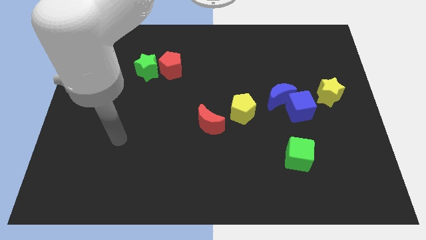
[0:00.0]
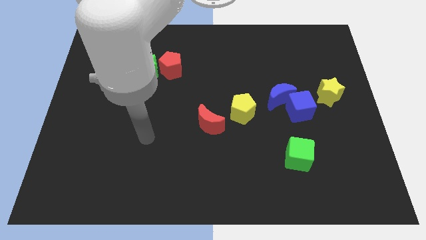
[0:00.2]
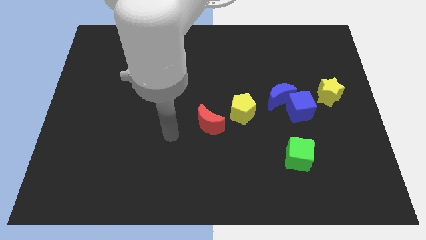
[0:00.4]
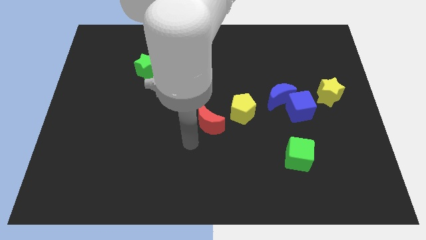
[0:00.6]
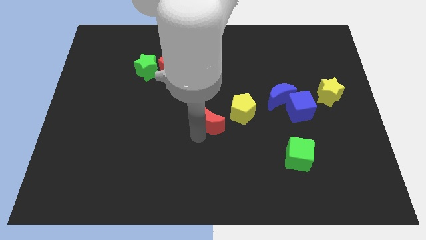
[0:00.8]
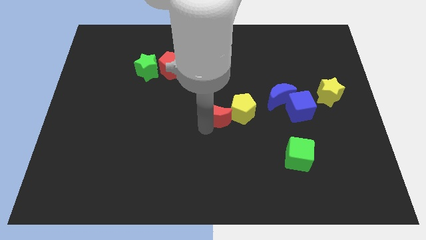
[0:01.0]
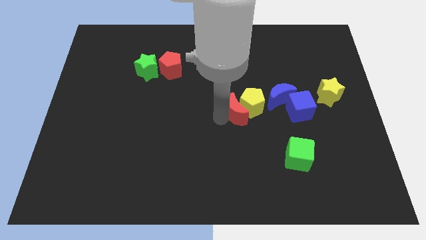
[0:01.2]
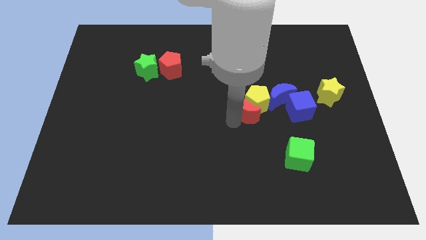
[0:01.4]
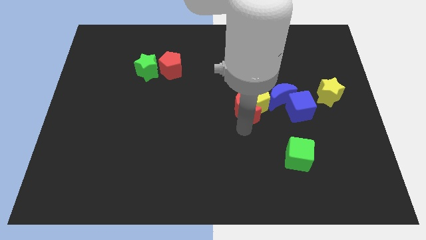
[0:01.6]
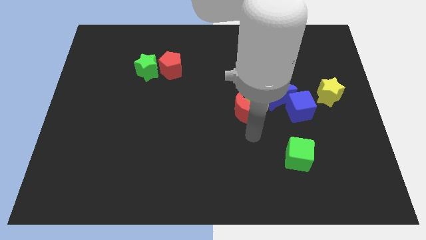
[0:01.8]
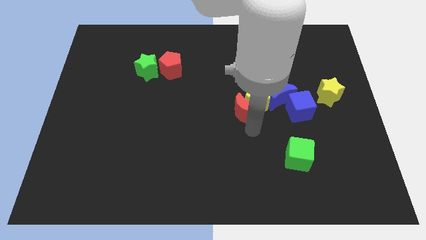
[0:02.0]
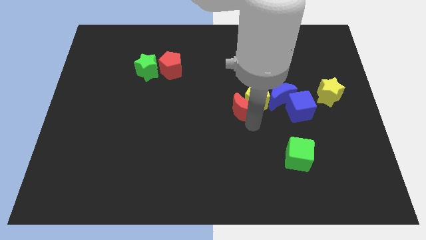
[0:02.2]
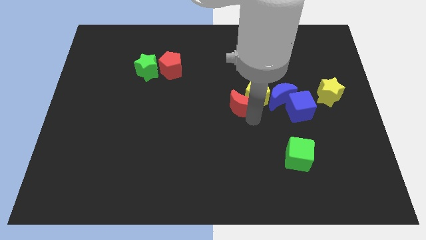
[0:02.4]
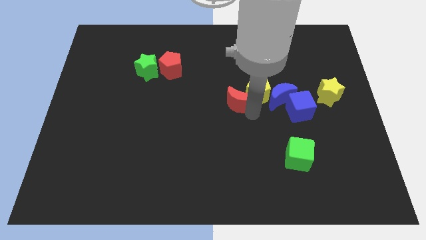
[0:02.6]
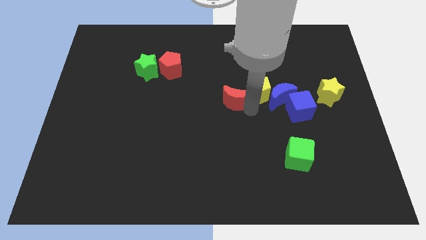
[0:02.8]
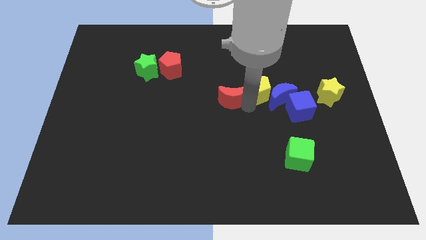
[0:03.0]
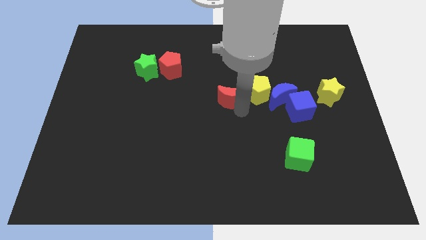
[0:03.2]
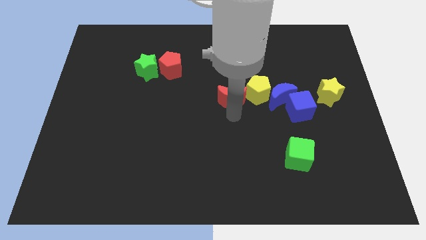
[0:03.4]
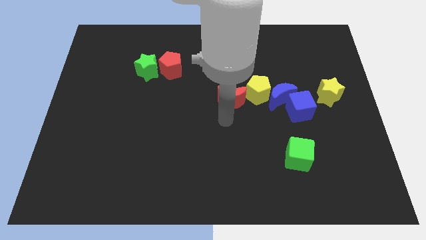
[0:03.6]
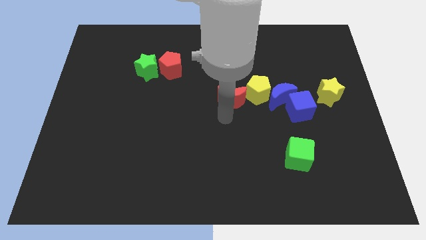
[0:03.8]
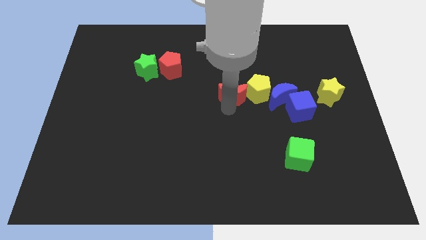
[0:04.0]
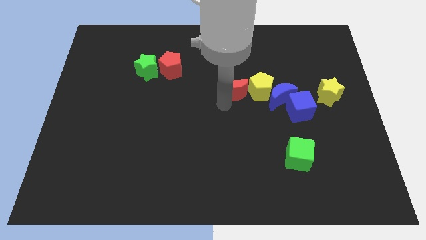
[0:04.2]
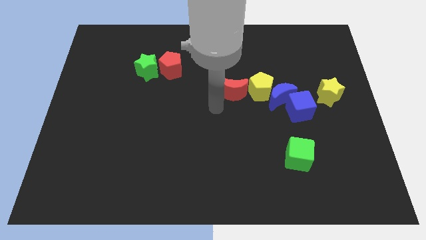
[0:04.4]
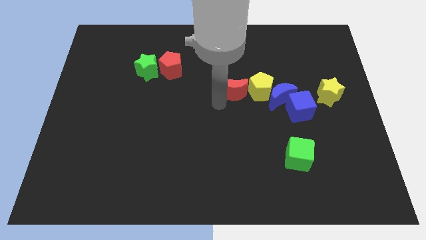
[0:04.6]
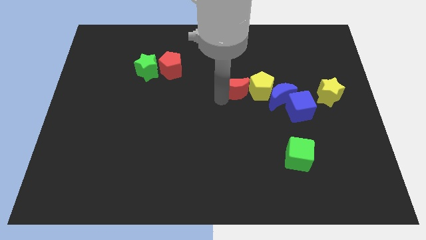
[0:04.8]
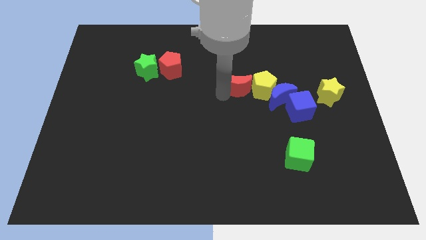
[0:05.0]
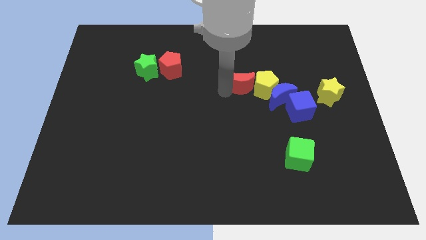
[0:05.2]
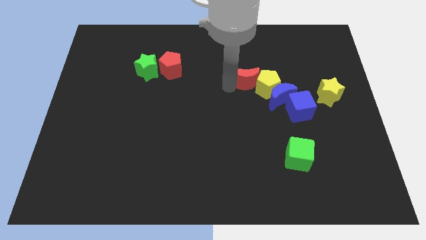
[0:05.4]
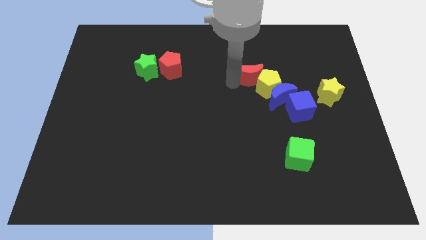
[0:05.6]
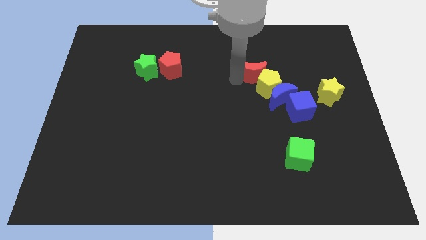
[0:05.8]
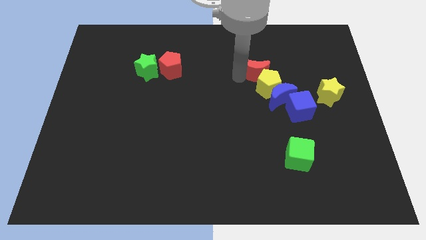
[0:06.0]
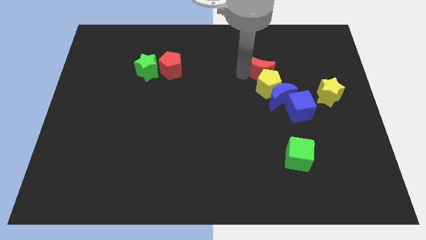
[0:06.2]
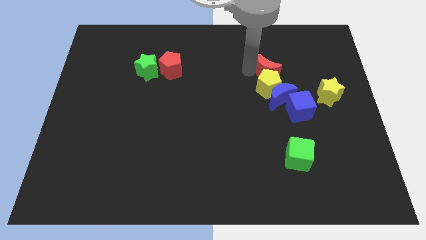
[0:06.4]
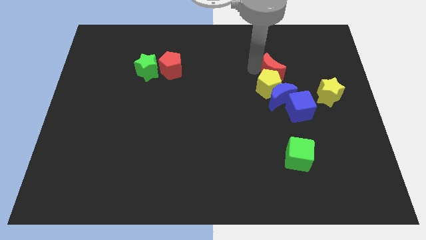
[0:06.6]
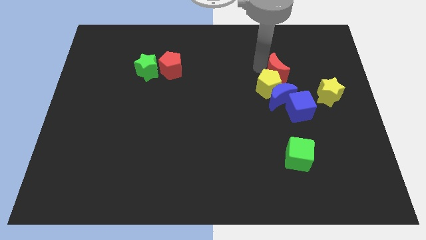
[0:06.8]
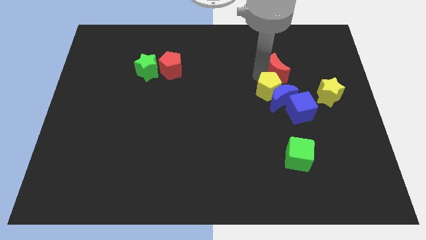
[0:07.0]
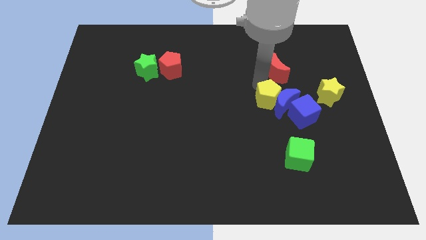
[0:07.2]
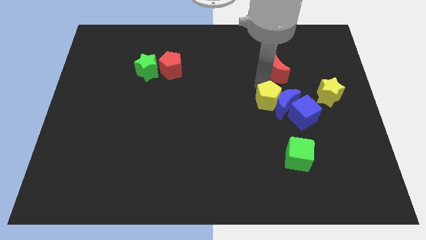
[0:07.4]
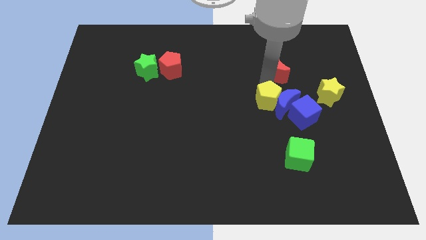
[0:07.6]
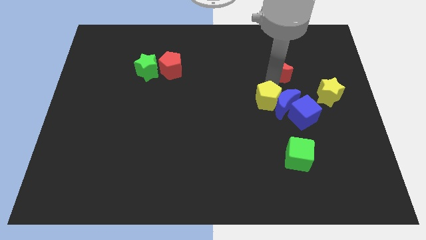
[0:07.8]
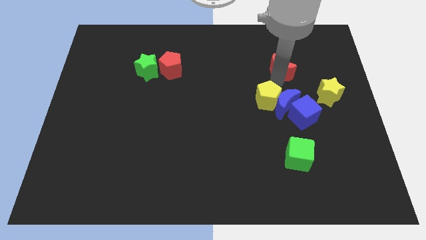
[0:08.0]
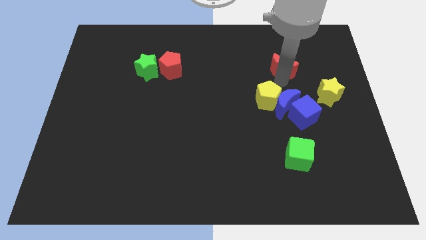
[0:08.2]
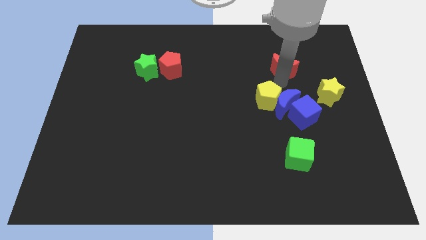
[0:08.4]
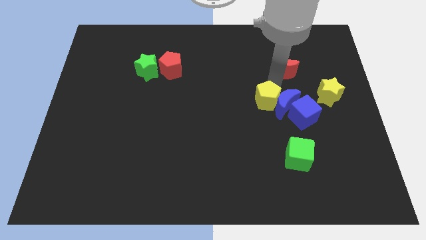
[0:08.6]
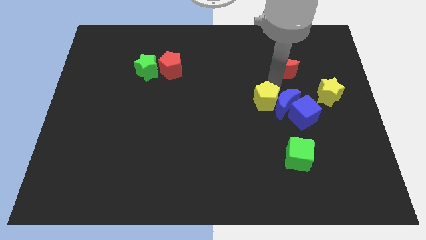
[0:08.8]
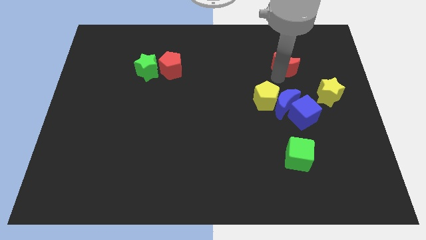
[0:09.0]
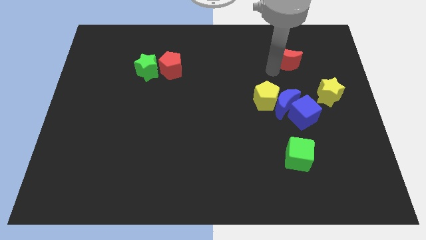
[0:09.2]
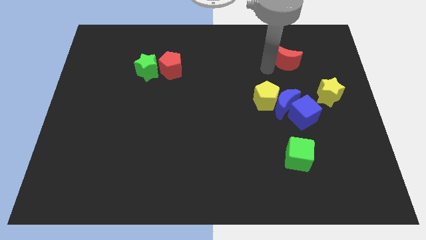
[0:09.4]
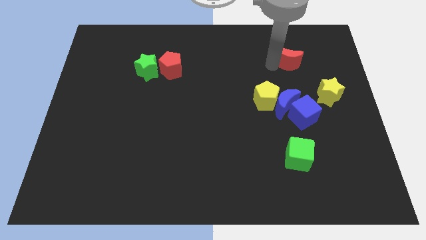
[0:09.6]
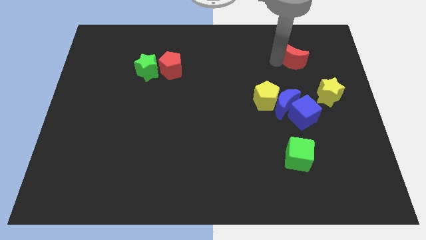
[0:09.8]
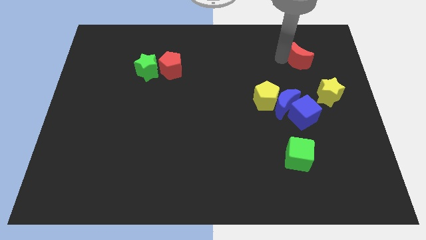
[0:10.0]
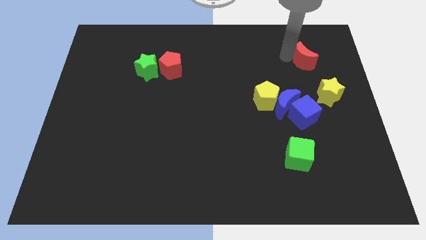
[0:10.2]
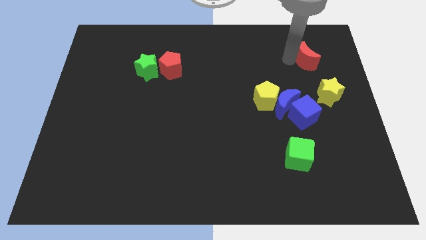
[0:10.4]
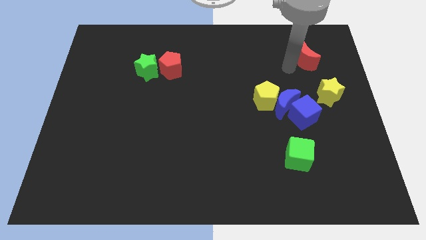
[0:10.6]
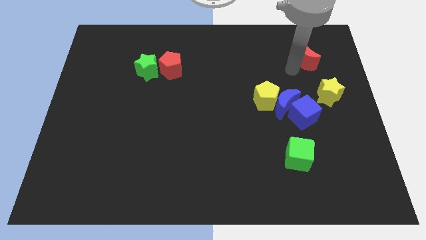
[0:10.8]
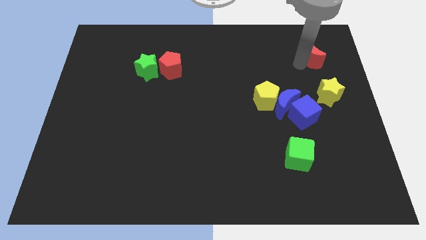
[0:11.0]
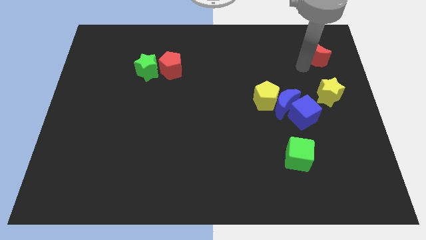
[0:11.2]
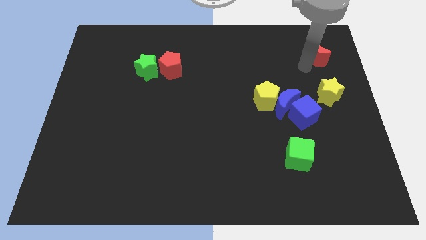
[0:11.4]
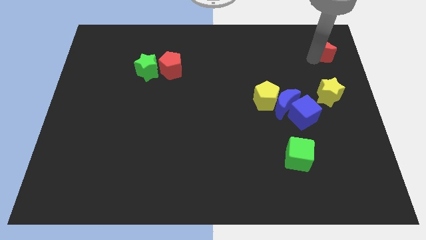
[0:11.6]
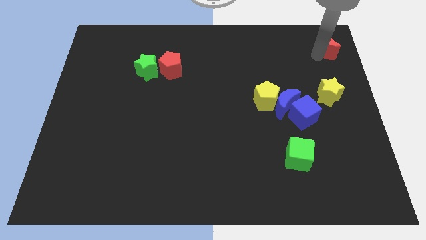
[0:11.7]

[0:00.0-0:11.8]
slide the red moon to the top right of the board

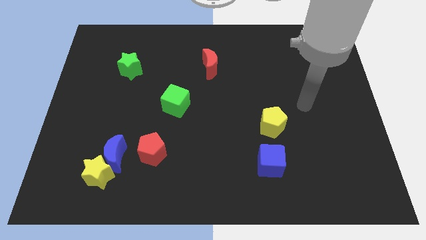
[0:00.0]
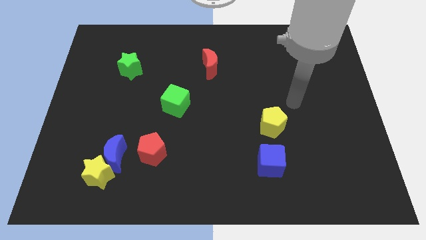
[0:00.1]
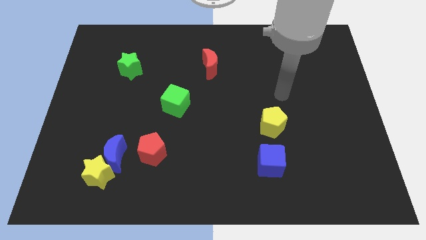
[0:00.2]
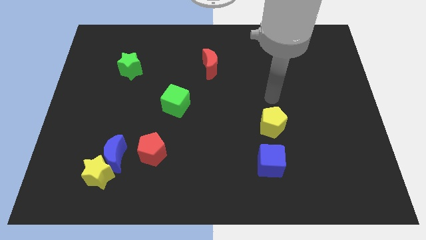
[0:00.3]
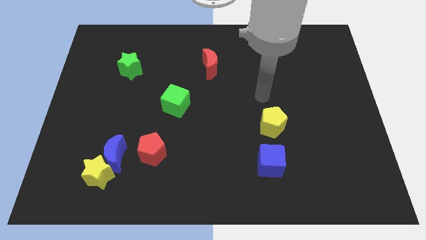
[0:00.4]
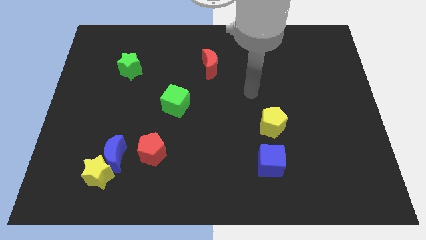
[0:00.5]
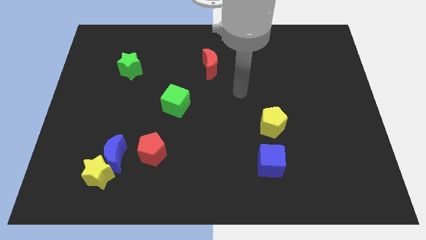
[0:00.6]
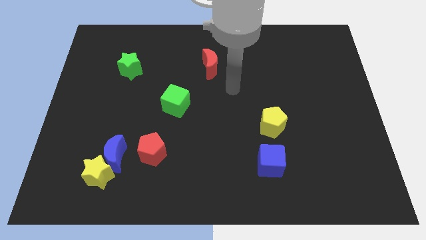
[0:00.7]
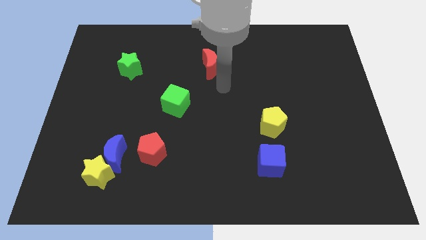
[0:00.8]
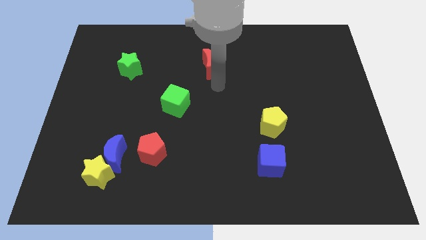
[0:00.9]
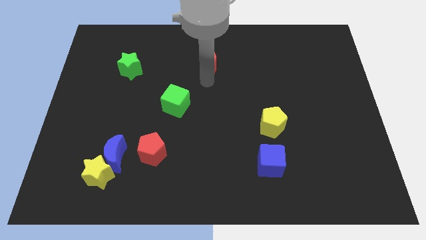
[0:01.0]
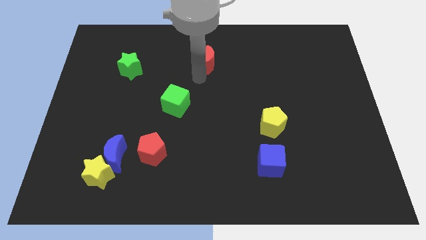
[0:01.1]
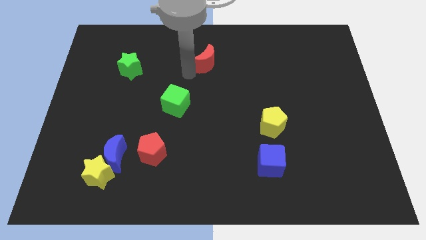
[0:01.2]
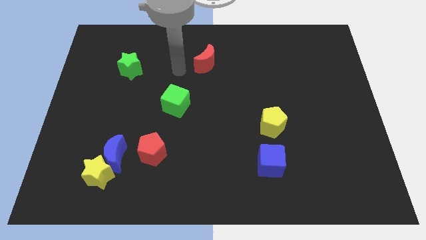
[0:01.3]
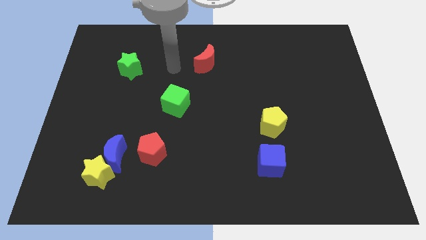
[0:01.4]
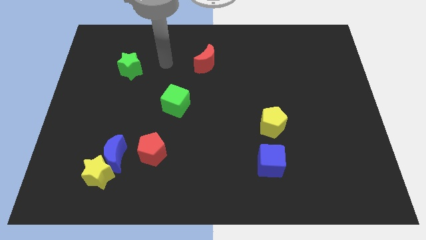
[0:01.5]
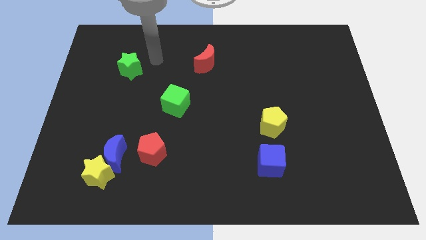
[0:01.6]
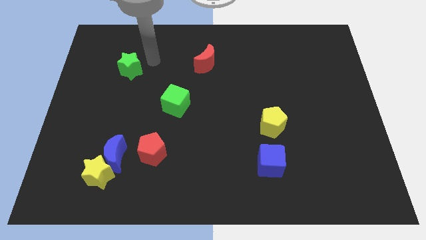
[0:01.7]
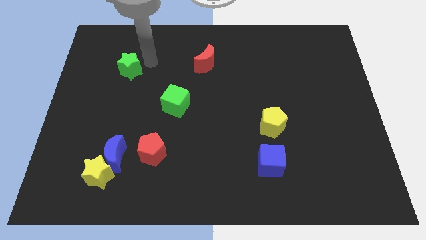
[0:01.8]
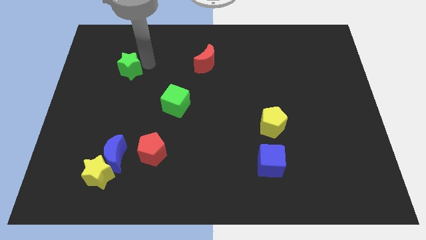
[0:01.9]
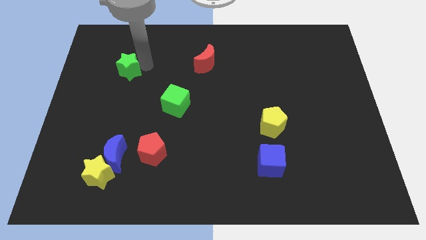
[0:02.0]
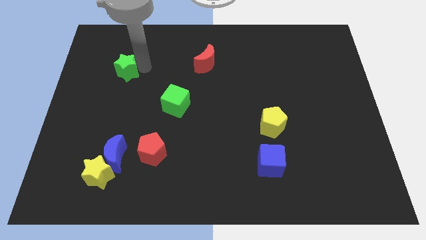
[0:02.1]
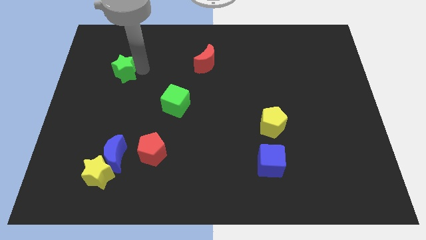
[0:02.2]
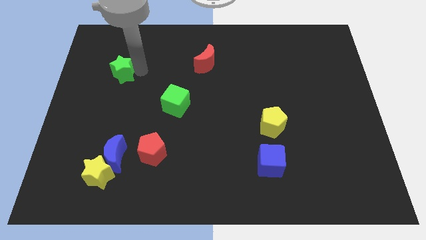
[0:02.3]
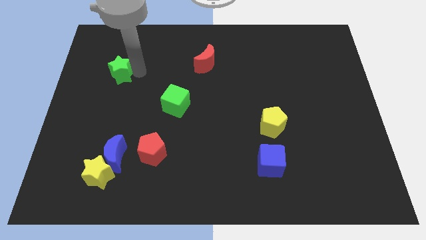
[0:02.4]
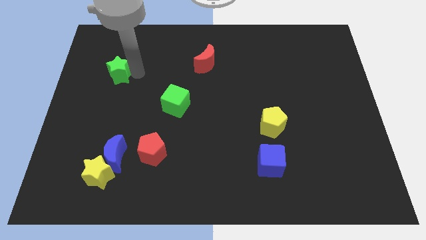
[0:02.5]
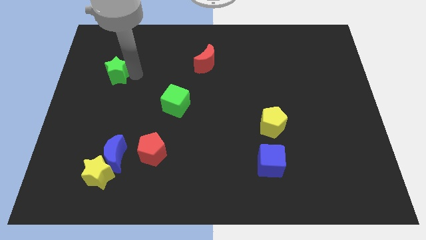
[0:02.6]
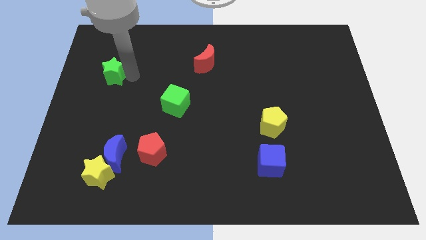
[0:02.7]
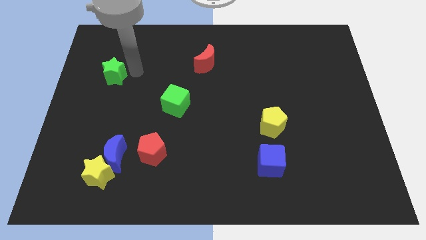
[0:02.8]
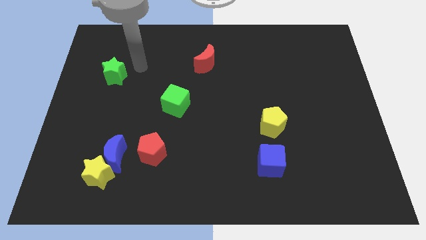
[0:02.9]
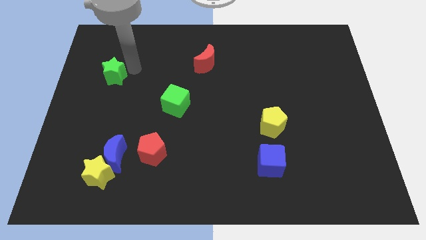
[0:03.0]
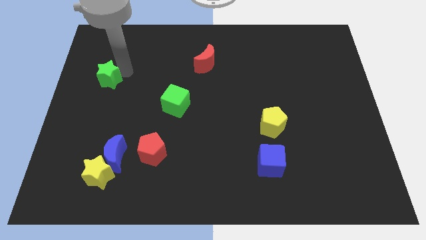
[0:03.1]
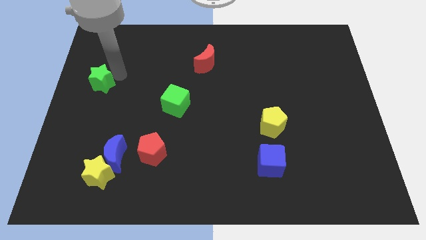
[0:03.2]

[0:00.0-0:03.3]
put the green star to the left side of the board
